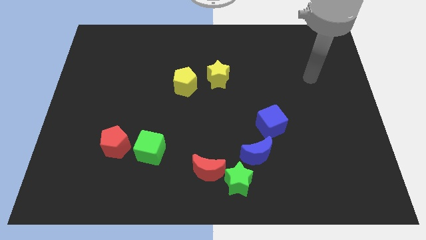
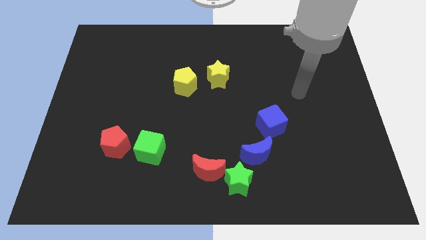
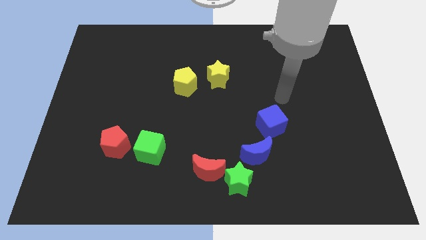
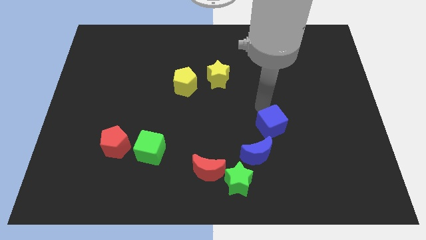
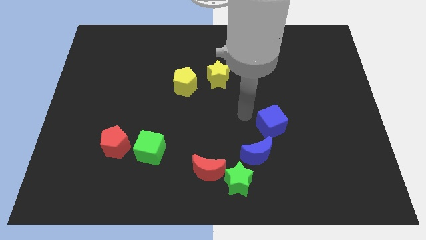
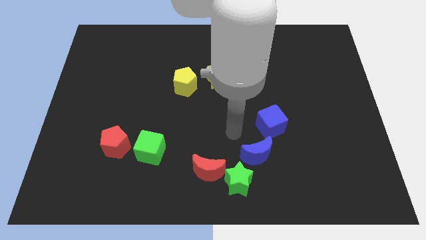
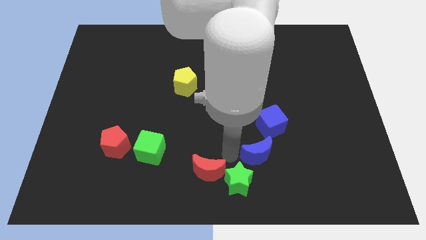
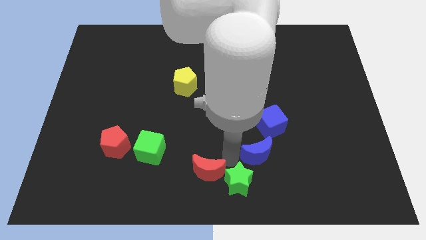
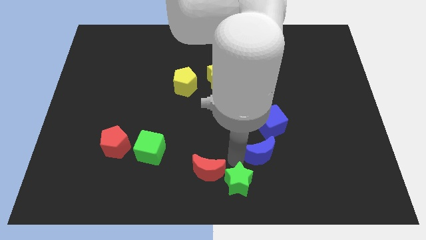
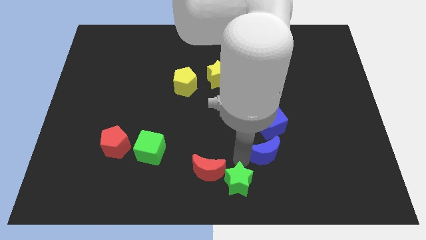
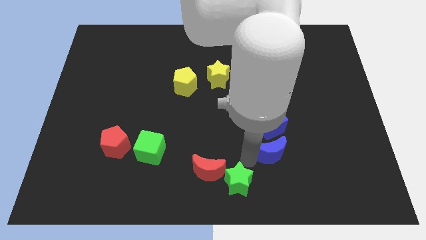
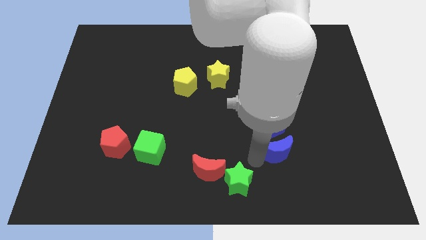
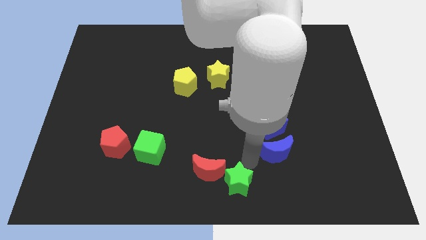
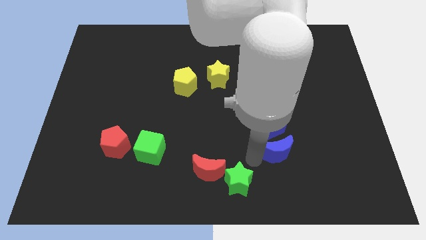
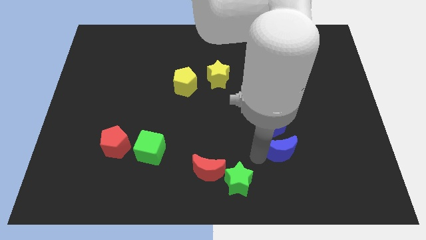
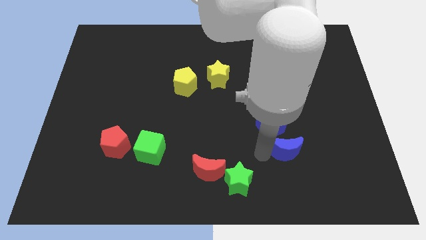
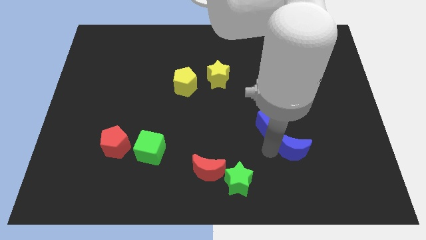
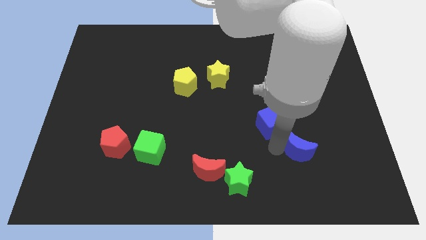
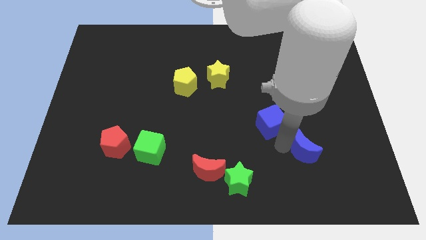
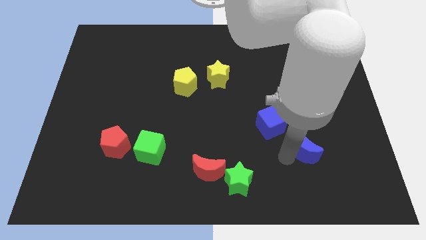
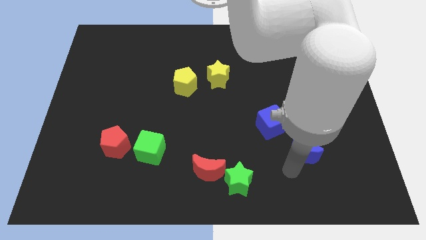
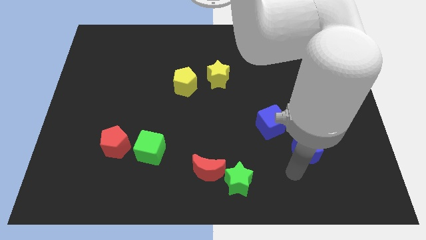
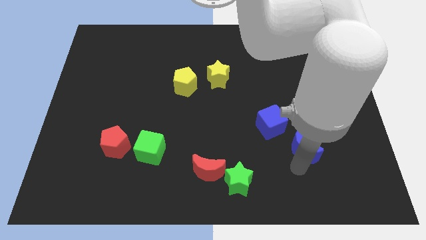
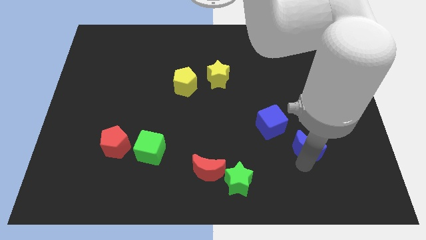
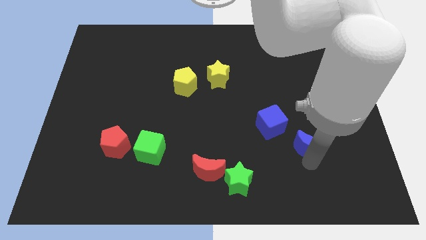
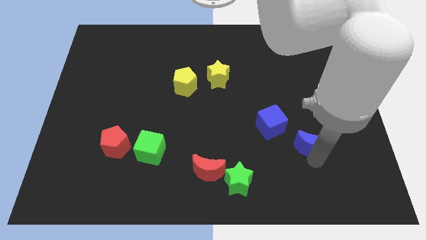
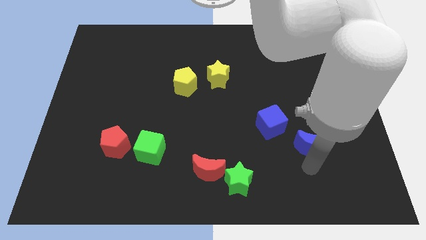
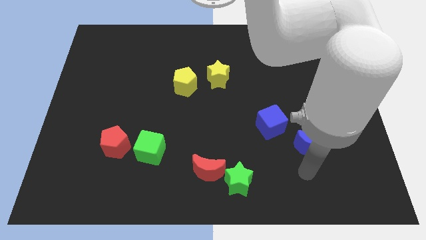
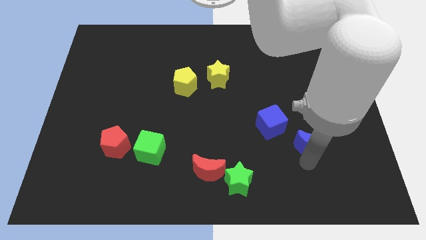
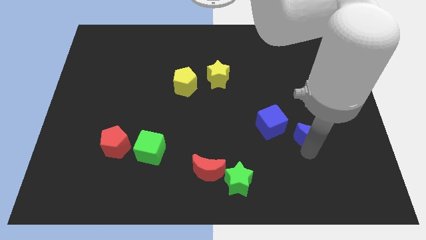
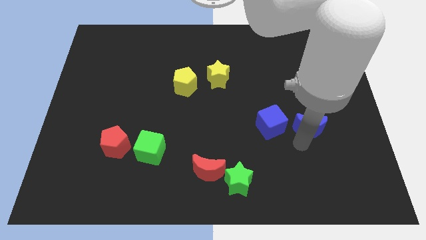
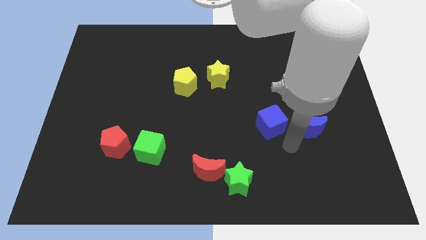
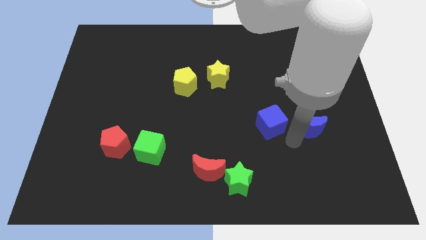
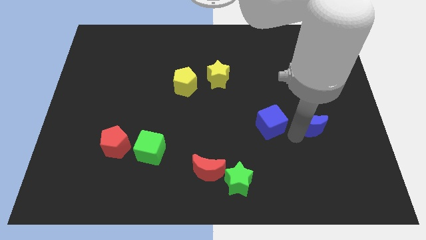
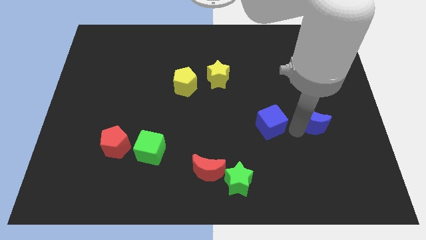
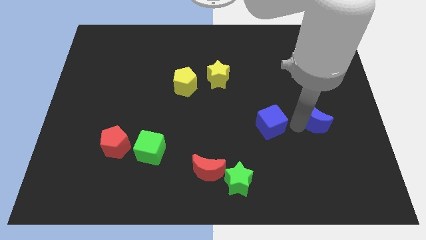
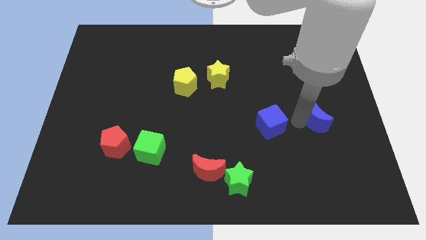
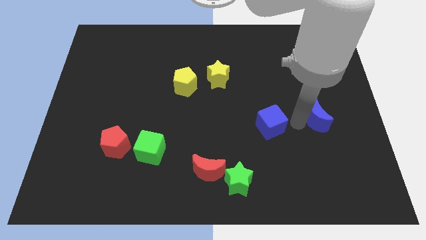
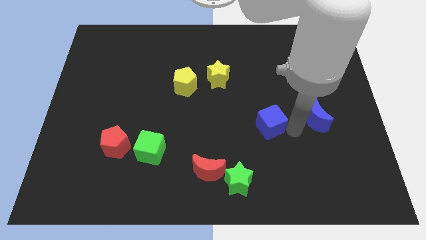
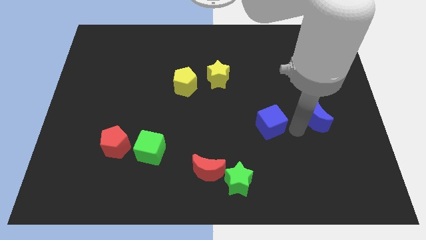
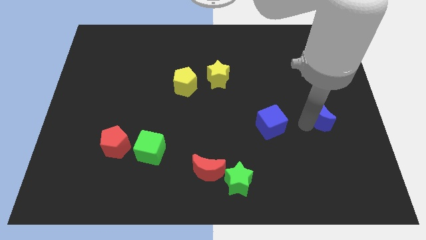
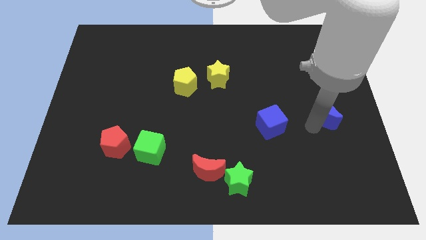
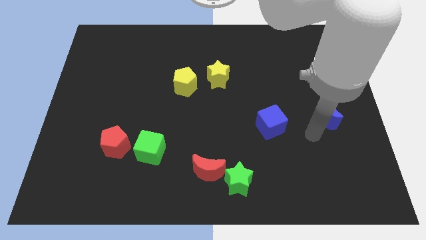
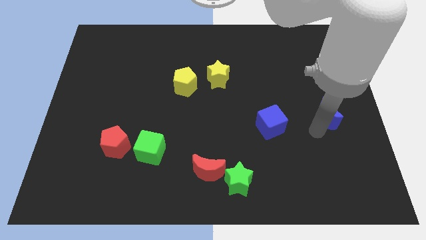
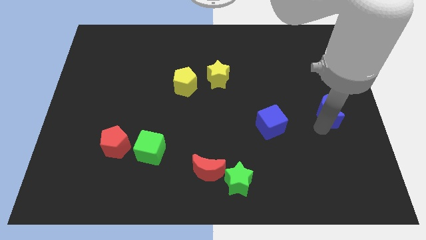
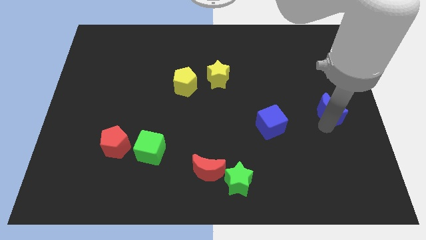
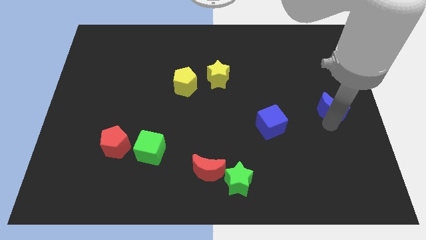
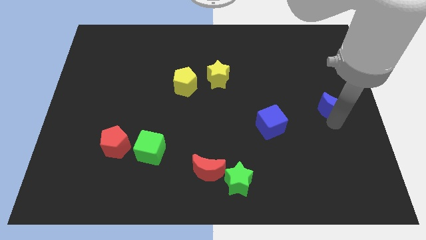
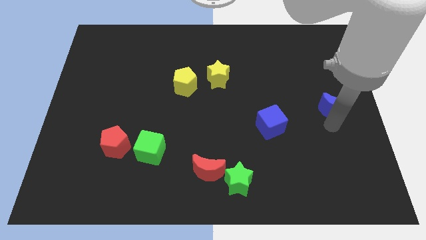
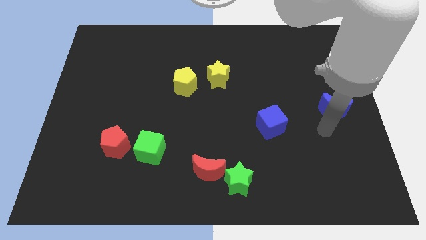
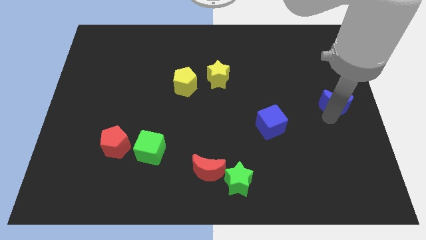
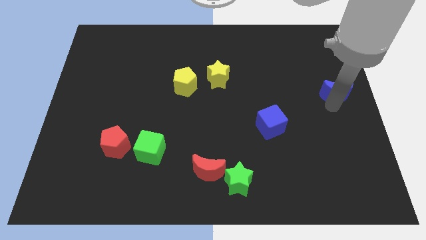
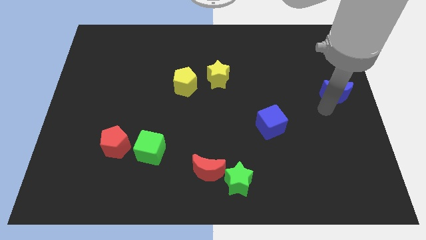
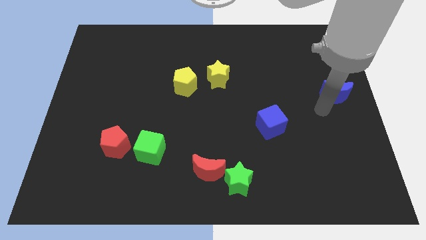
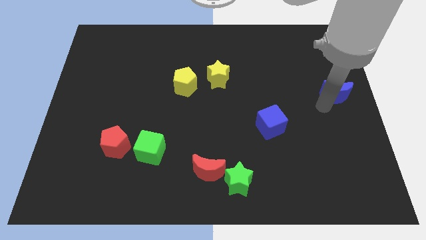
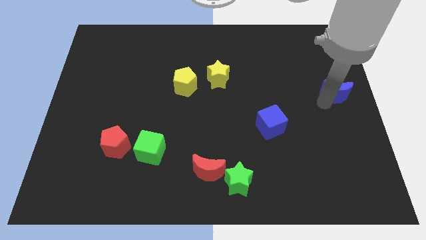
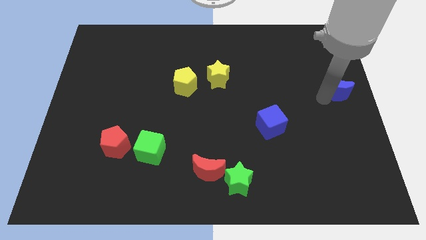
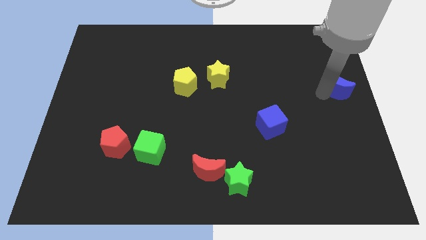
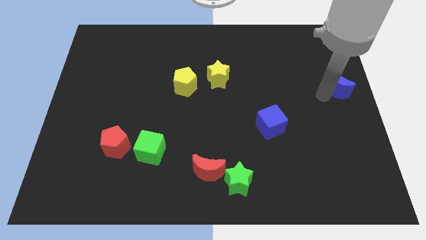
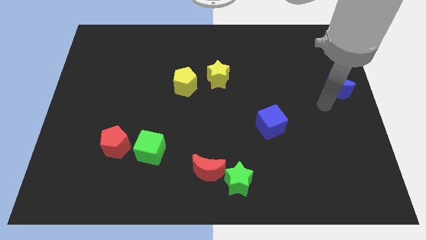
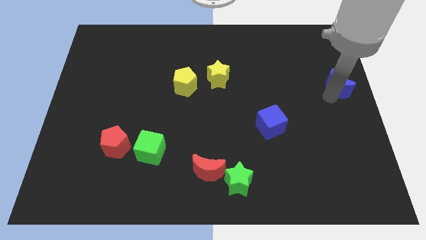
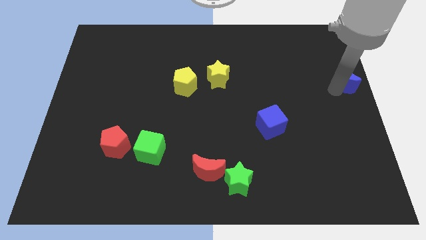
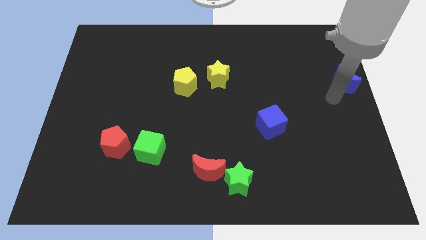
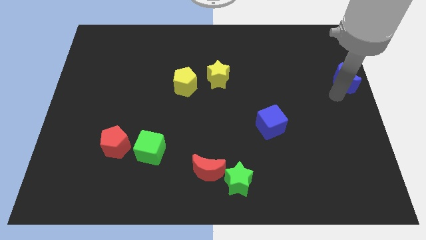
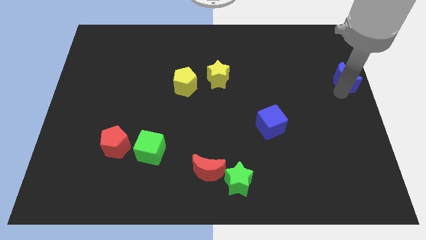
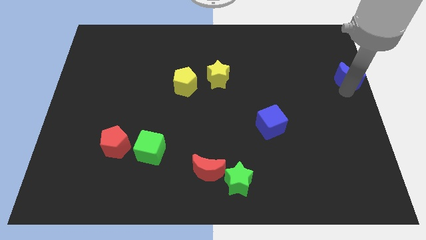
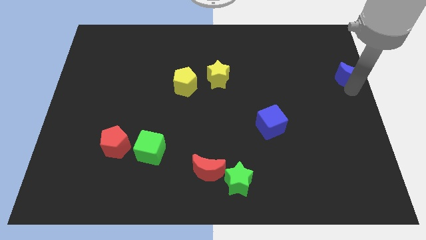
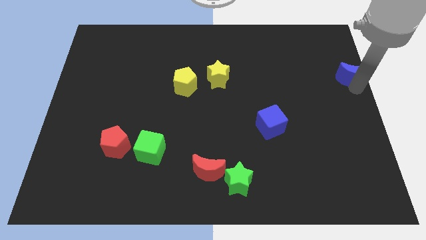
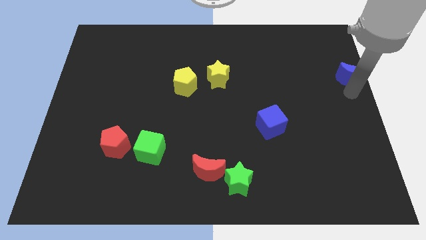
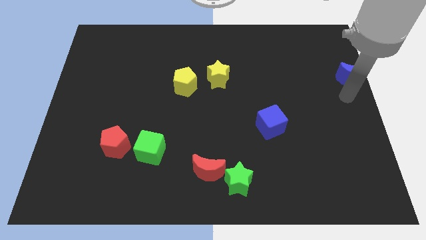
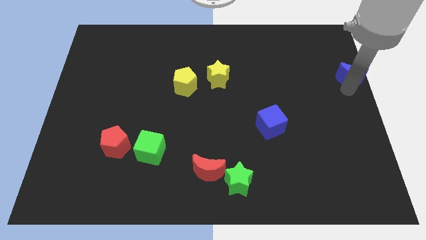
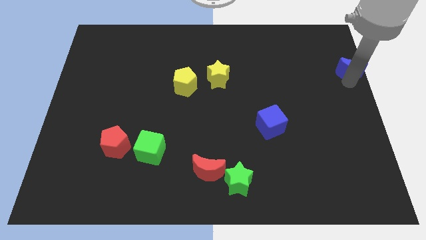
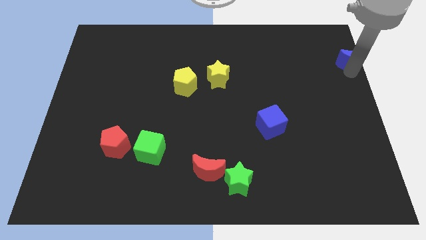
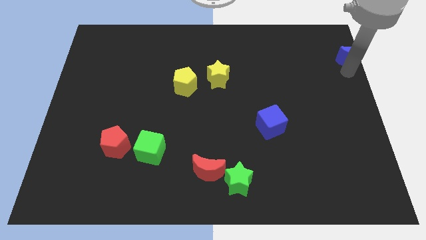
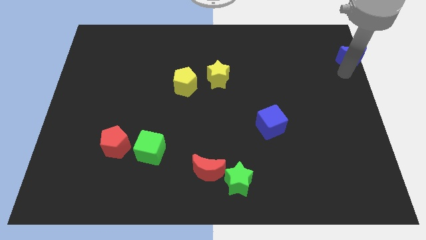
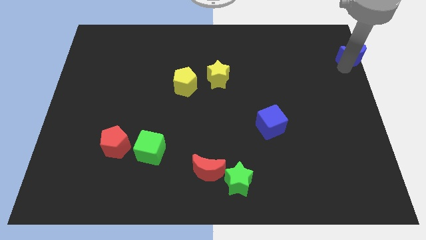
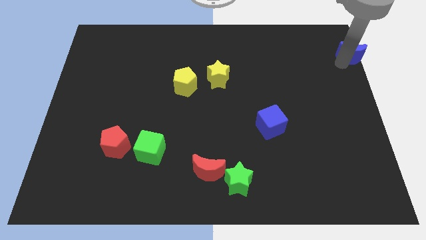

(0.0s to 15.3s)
push the blue moon to the upper right corner
